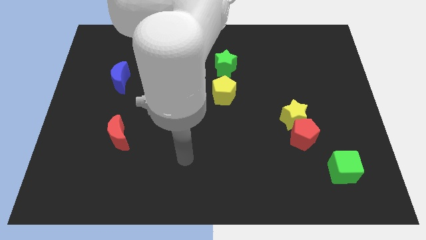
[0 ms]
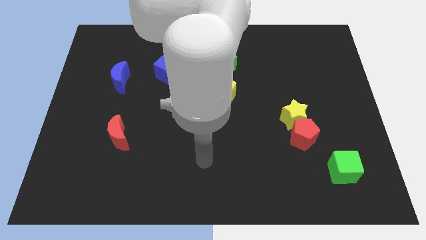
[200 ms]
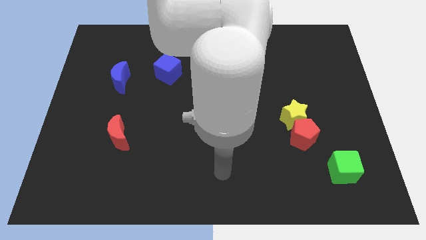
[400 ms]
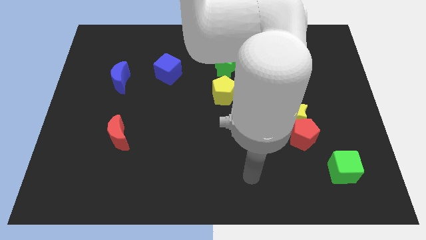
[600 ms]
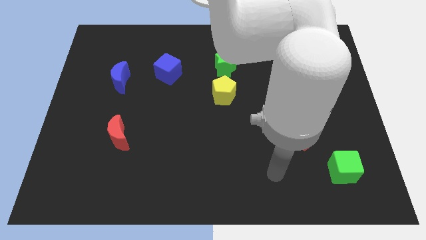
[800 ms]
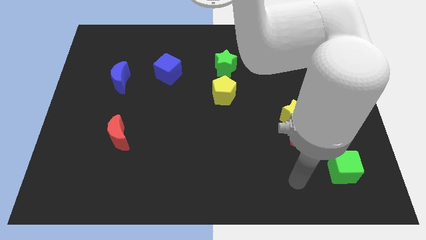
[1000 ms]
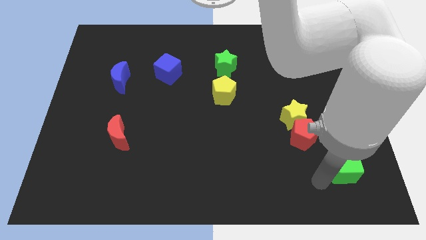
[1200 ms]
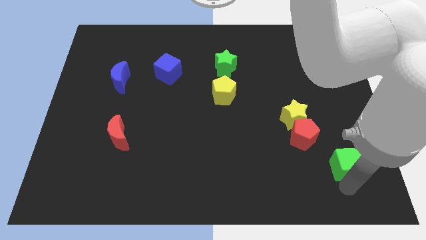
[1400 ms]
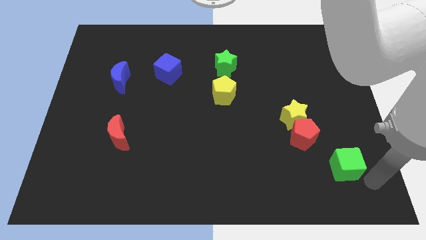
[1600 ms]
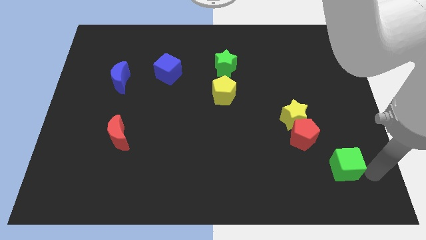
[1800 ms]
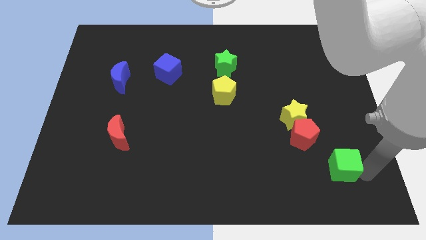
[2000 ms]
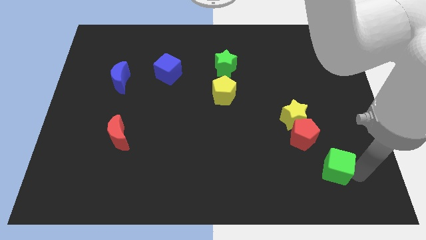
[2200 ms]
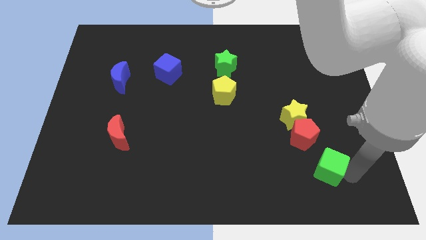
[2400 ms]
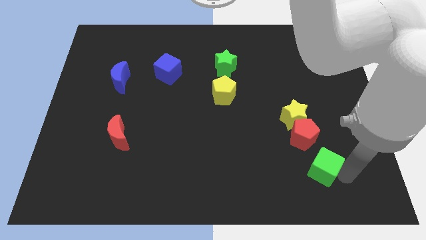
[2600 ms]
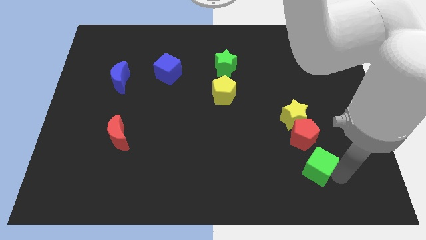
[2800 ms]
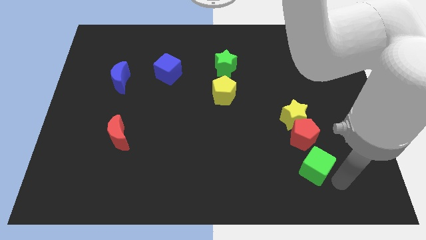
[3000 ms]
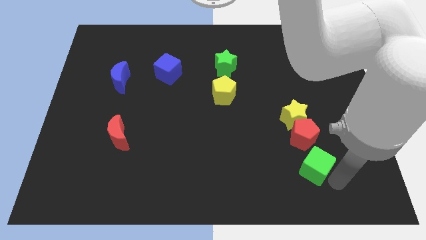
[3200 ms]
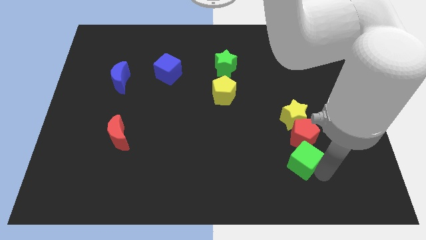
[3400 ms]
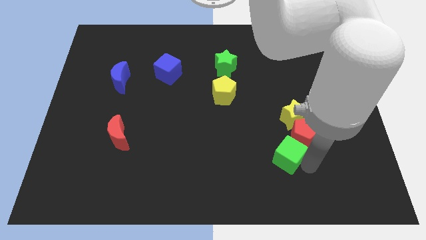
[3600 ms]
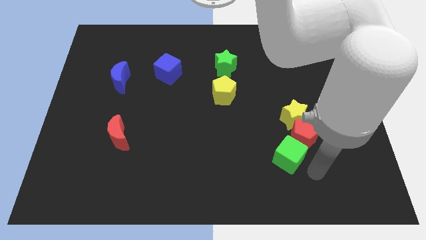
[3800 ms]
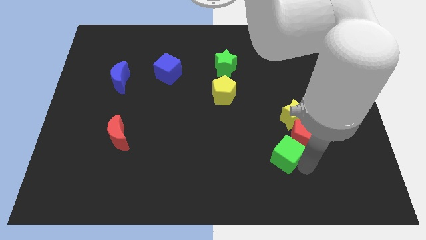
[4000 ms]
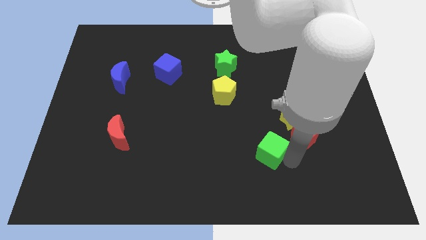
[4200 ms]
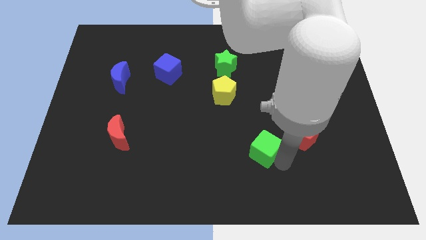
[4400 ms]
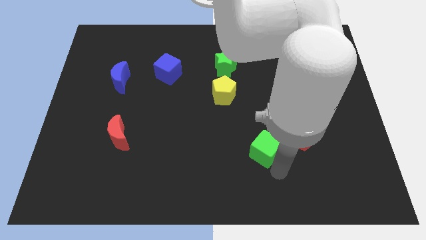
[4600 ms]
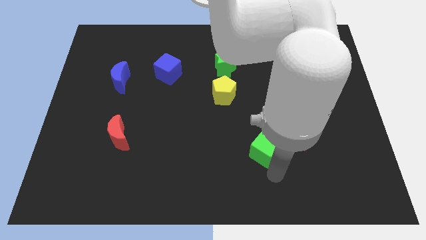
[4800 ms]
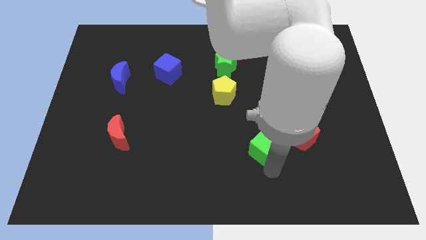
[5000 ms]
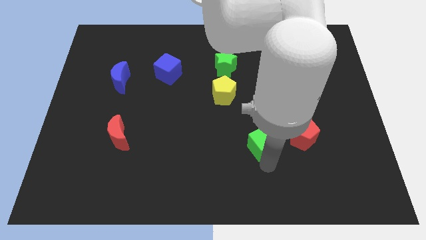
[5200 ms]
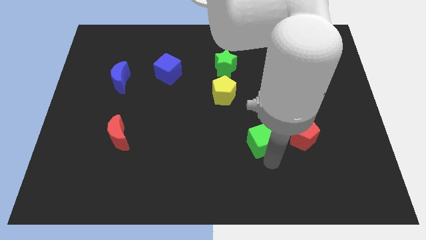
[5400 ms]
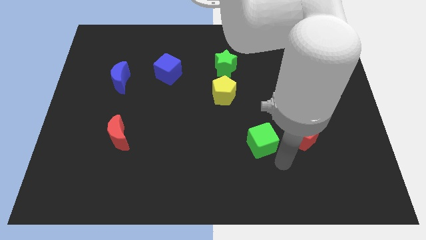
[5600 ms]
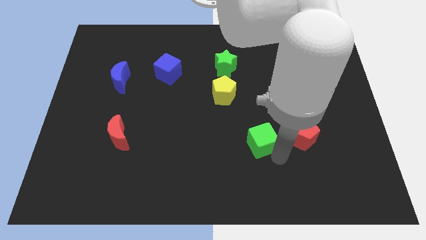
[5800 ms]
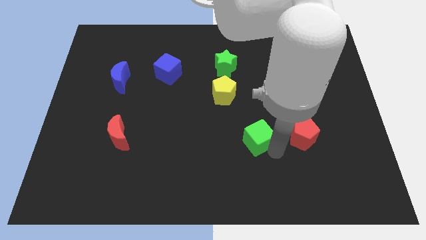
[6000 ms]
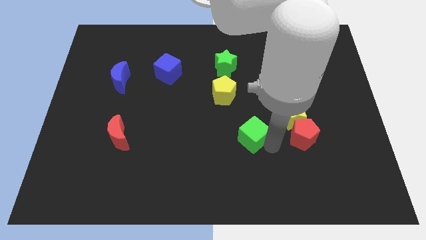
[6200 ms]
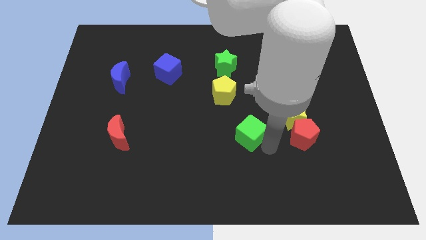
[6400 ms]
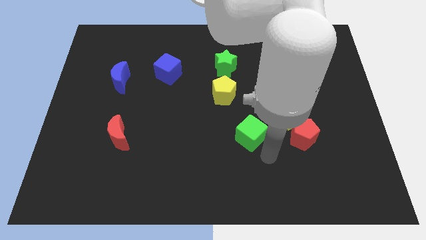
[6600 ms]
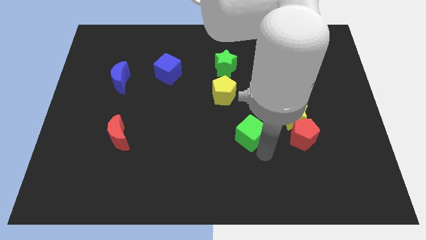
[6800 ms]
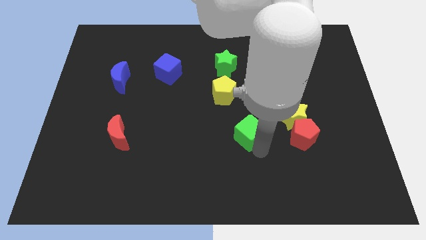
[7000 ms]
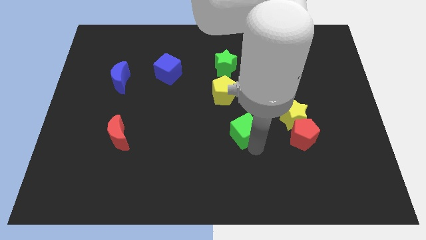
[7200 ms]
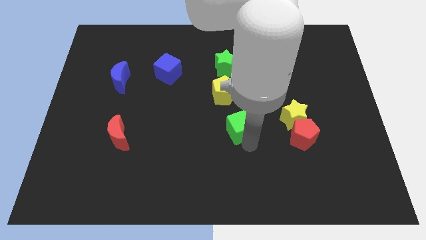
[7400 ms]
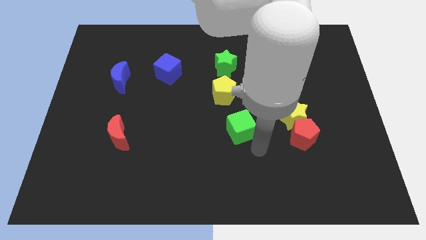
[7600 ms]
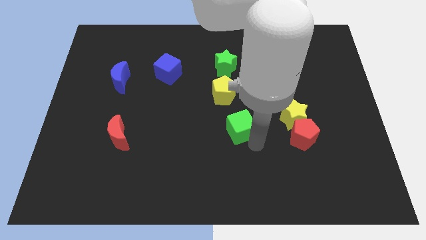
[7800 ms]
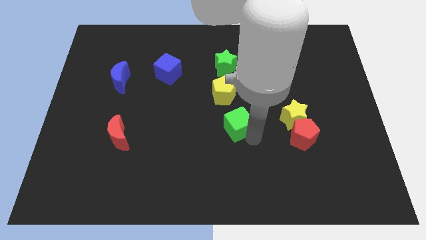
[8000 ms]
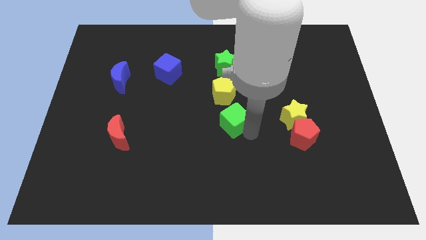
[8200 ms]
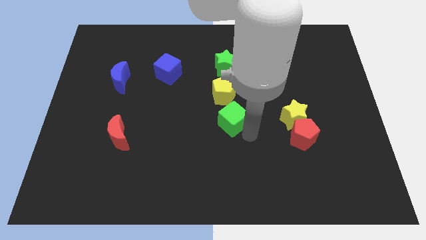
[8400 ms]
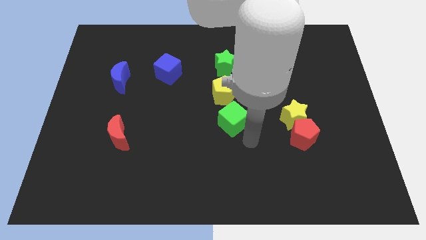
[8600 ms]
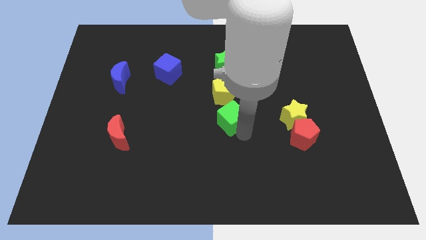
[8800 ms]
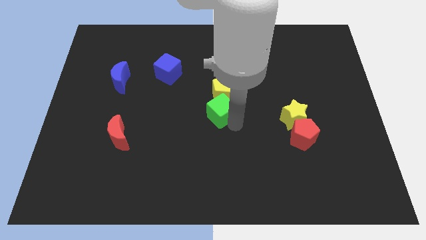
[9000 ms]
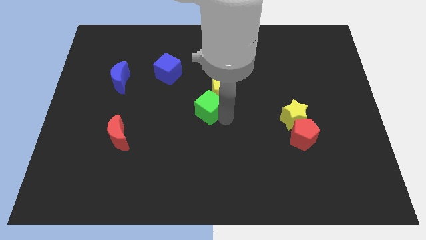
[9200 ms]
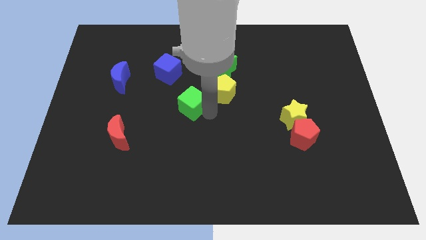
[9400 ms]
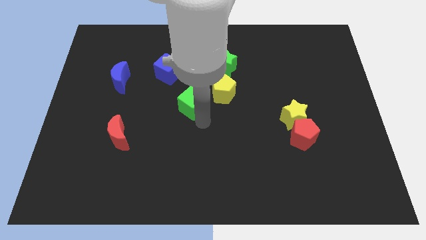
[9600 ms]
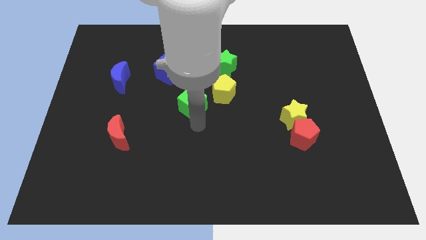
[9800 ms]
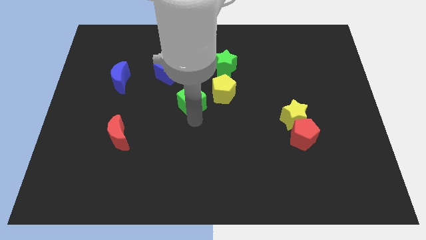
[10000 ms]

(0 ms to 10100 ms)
move the green cube to the bottom right of the blue cube

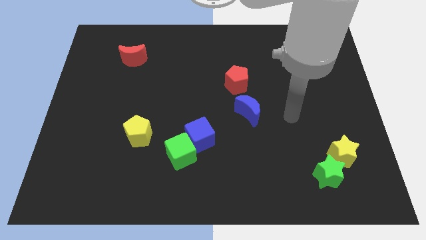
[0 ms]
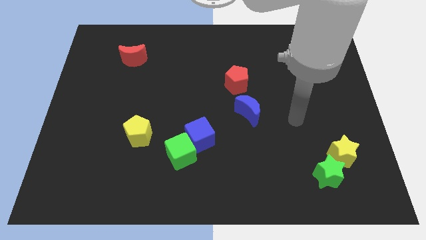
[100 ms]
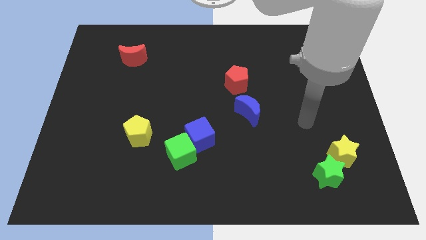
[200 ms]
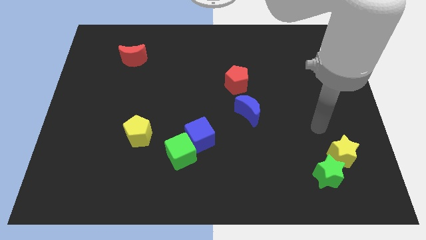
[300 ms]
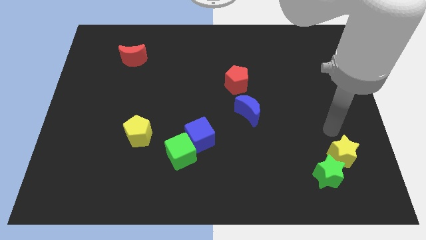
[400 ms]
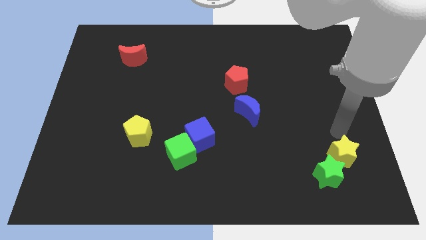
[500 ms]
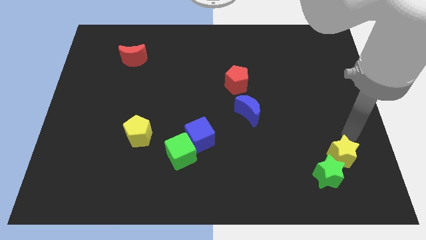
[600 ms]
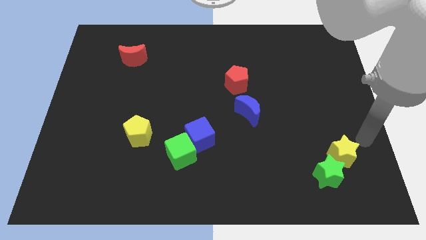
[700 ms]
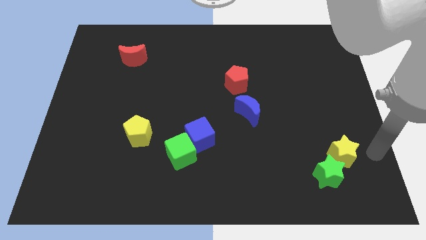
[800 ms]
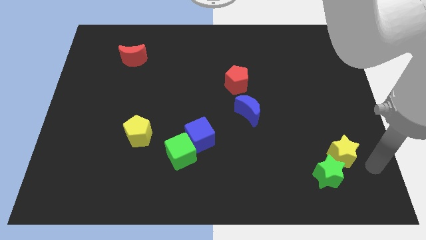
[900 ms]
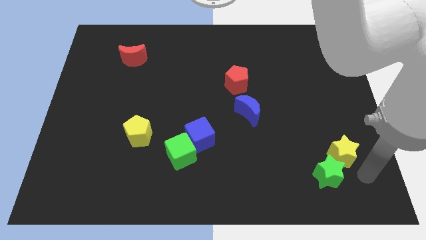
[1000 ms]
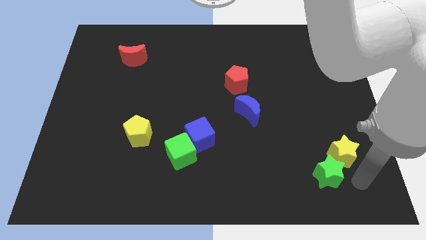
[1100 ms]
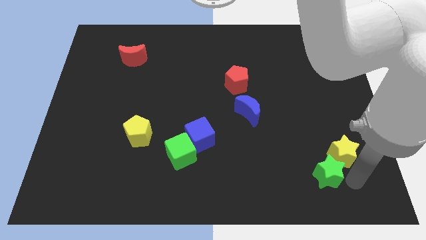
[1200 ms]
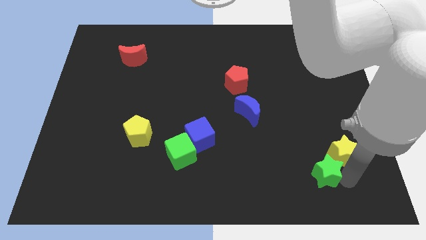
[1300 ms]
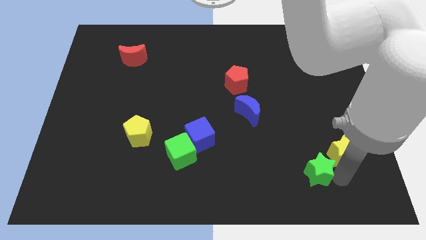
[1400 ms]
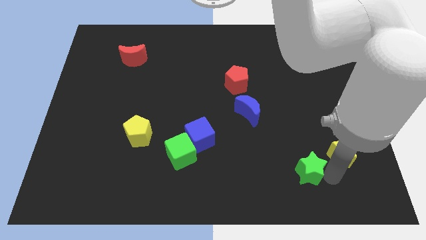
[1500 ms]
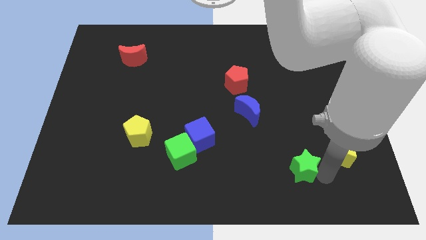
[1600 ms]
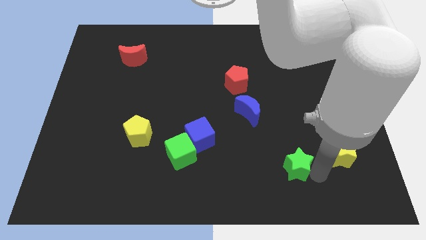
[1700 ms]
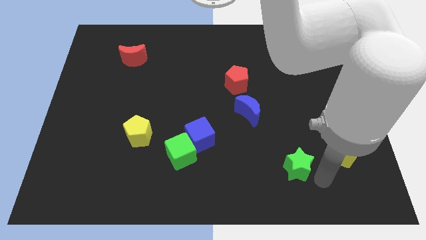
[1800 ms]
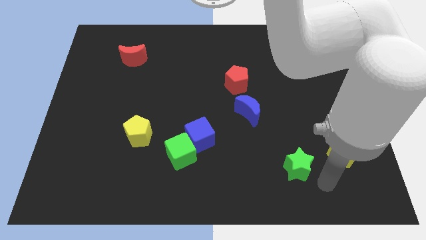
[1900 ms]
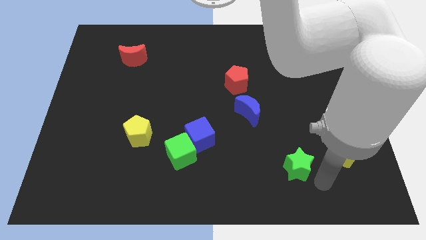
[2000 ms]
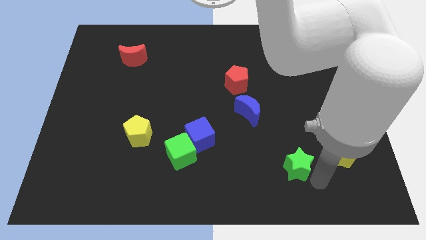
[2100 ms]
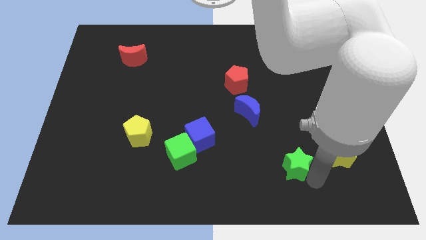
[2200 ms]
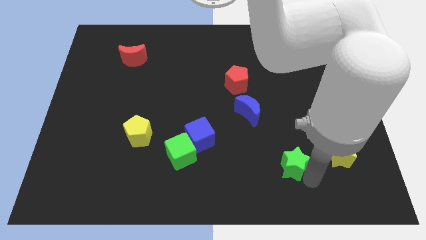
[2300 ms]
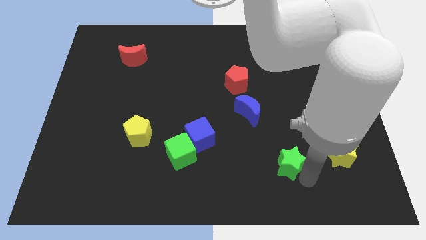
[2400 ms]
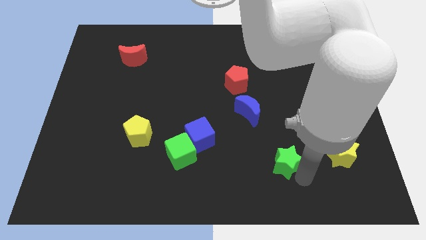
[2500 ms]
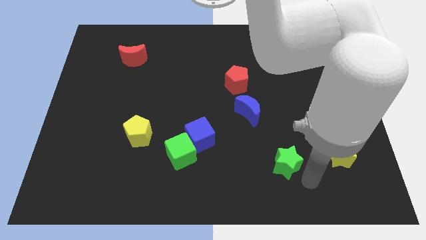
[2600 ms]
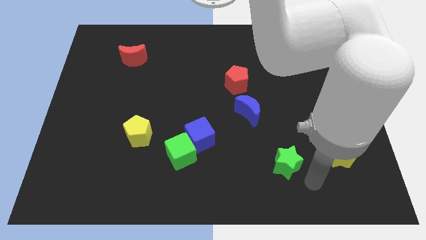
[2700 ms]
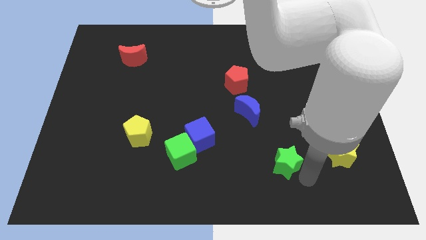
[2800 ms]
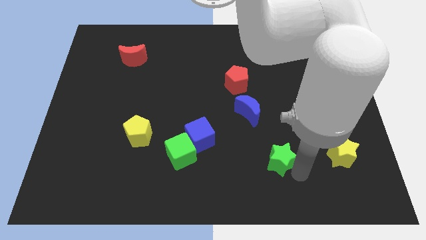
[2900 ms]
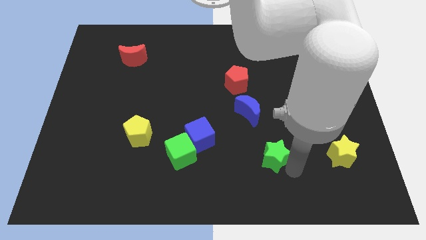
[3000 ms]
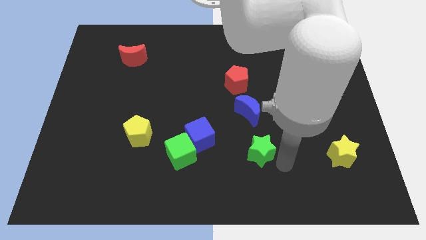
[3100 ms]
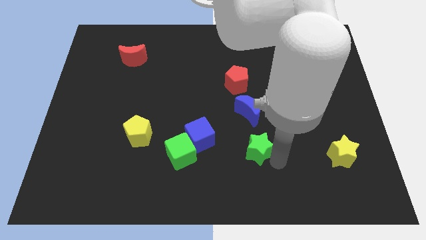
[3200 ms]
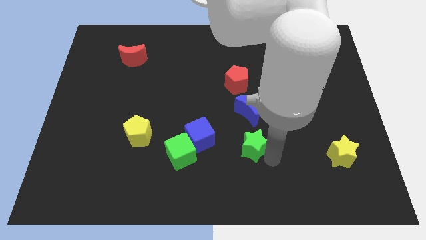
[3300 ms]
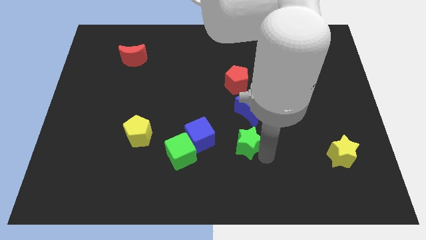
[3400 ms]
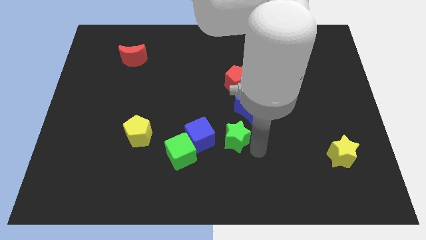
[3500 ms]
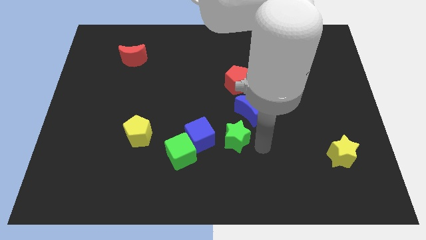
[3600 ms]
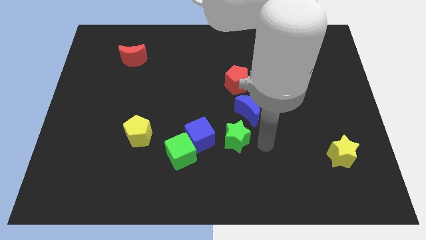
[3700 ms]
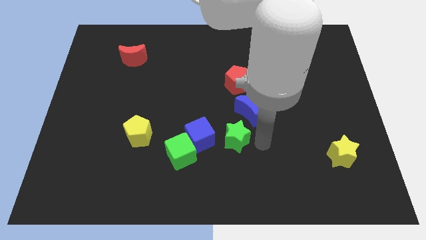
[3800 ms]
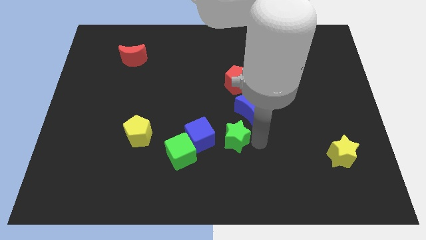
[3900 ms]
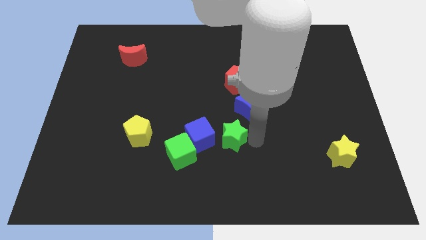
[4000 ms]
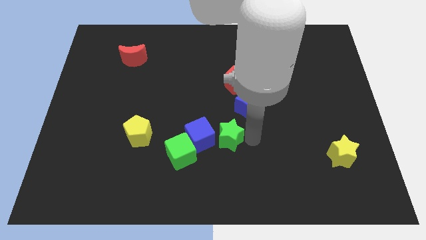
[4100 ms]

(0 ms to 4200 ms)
slide the green star to the top right of the green cube
